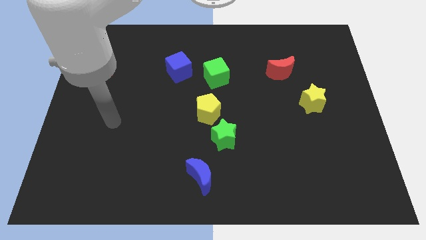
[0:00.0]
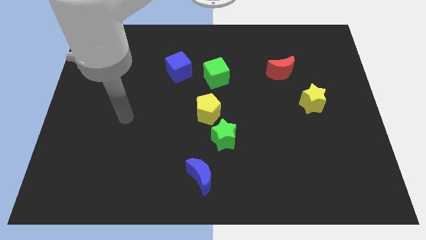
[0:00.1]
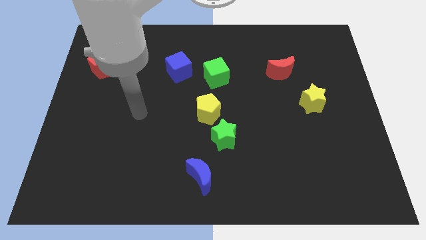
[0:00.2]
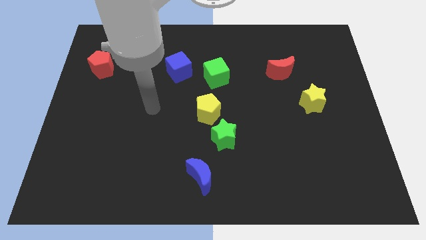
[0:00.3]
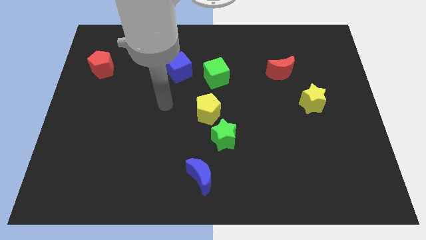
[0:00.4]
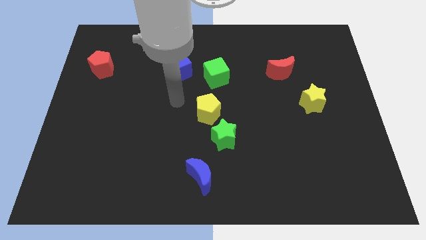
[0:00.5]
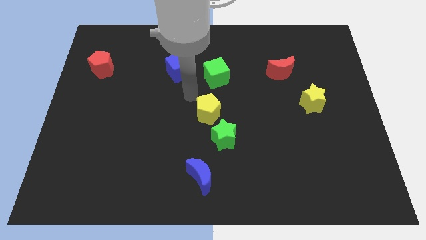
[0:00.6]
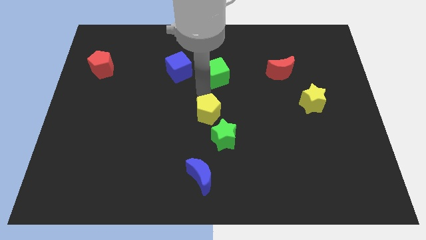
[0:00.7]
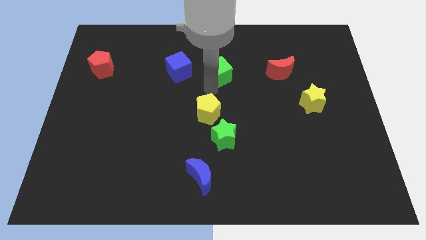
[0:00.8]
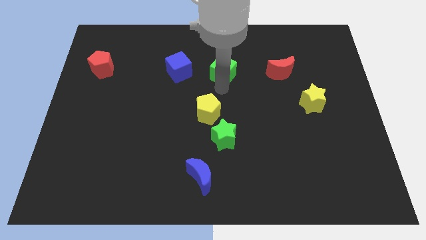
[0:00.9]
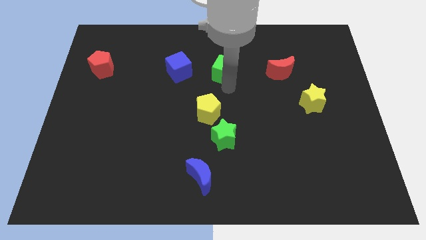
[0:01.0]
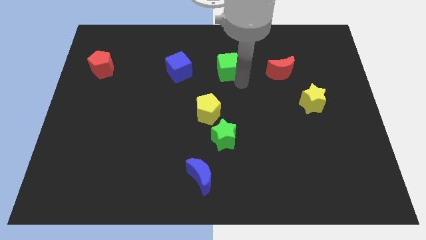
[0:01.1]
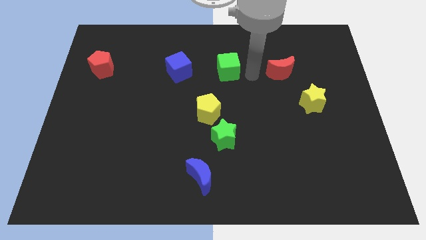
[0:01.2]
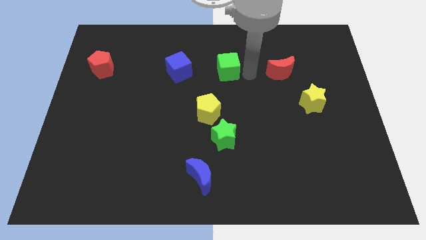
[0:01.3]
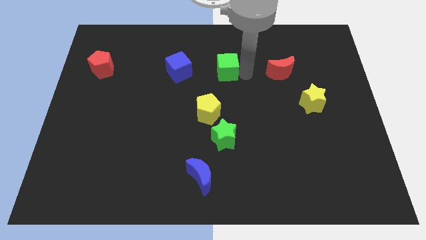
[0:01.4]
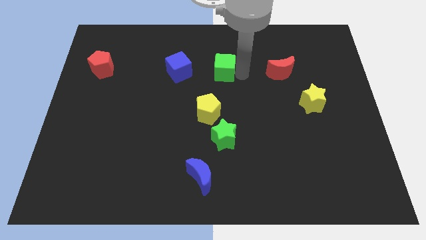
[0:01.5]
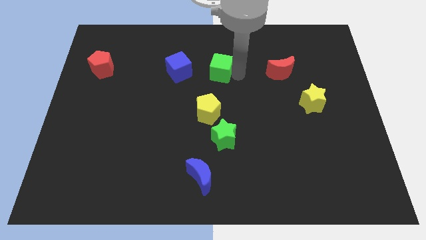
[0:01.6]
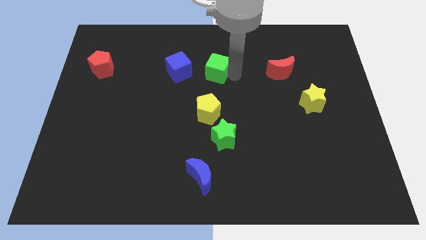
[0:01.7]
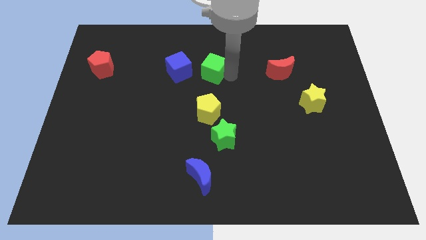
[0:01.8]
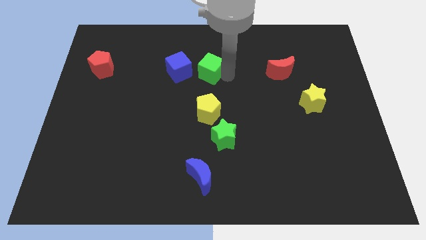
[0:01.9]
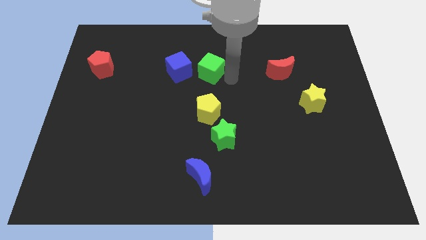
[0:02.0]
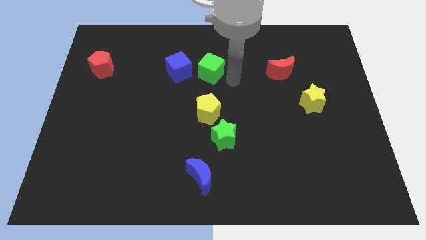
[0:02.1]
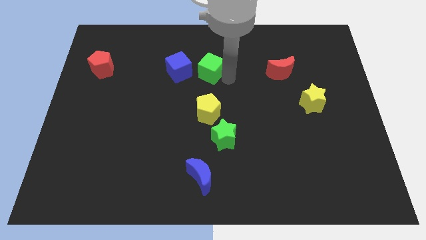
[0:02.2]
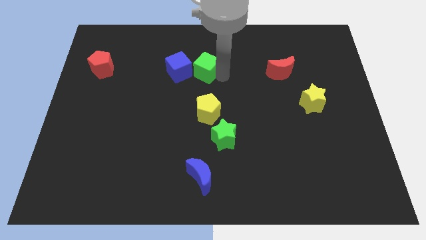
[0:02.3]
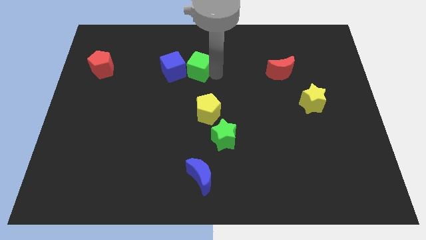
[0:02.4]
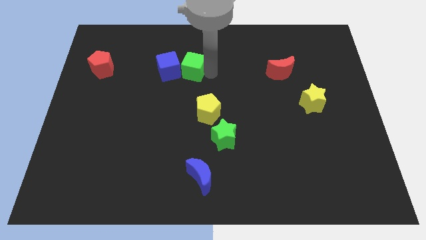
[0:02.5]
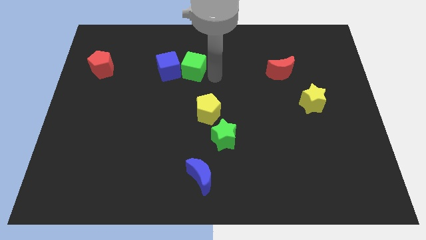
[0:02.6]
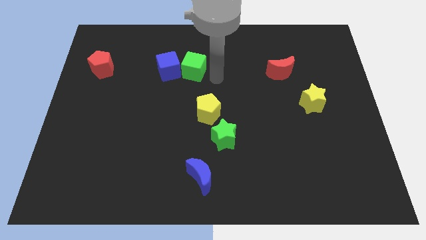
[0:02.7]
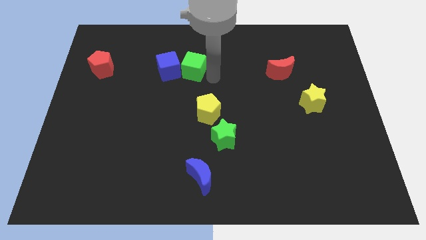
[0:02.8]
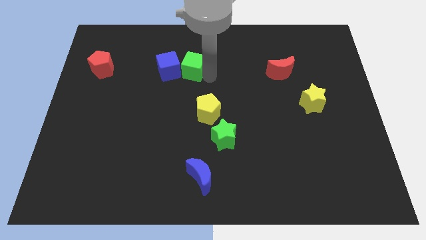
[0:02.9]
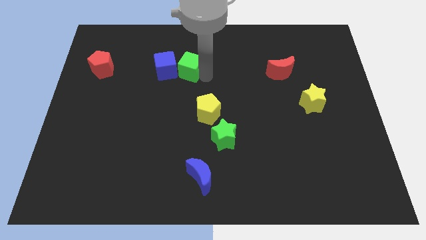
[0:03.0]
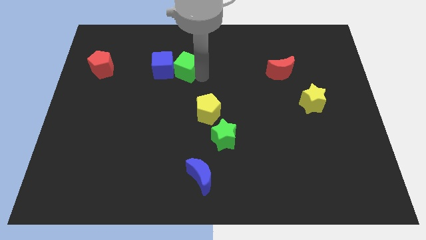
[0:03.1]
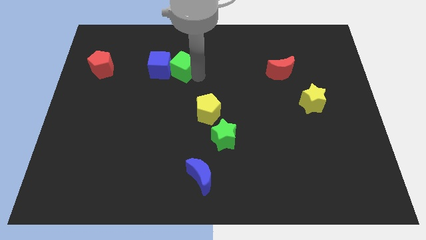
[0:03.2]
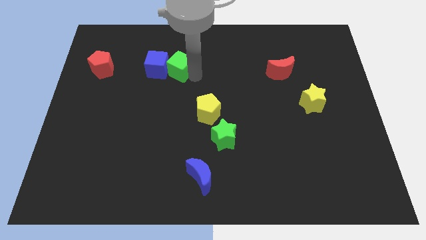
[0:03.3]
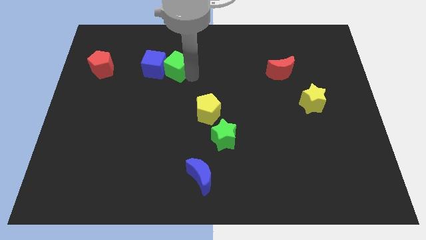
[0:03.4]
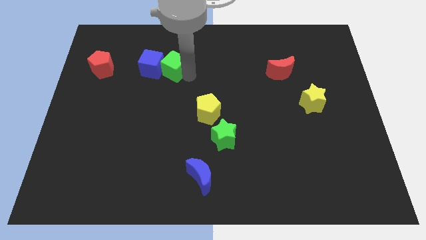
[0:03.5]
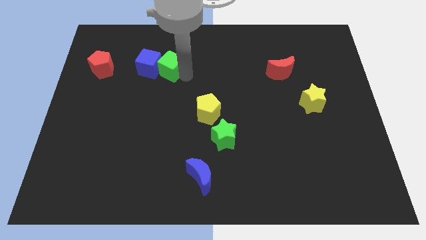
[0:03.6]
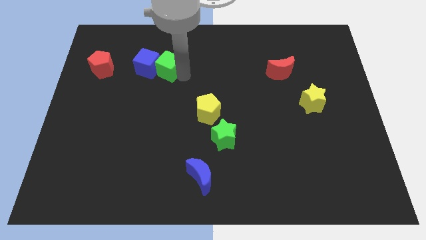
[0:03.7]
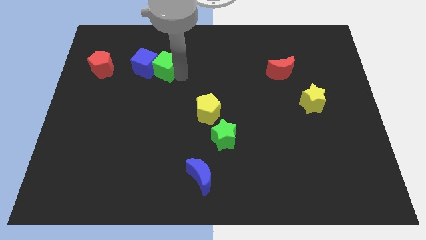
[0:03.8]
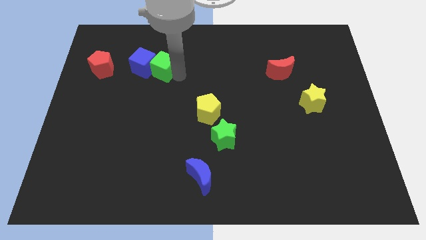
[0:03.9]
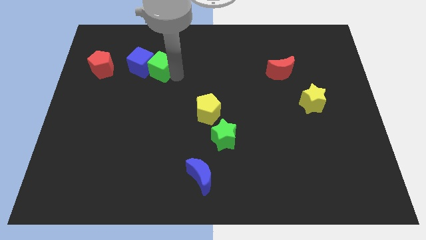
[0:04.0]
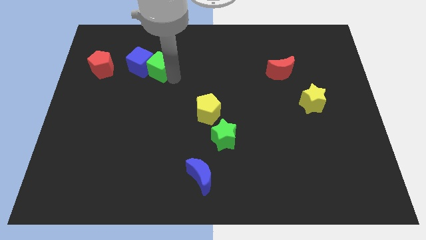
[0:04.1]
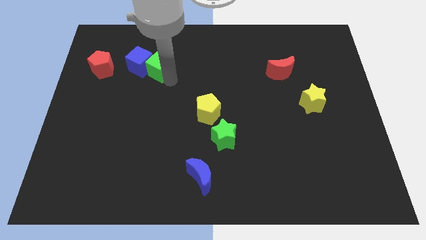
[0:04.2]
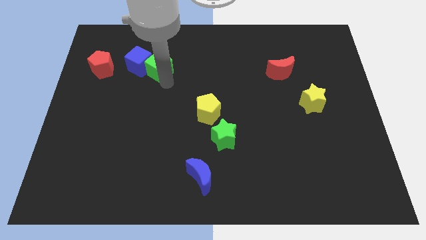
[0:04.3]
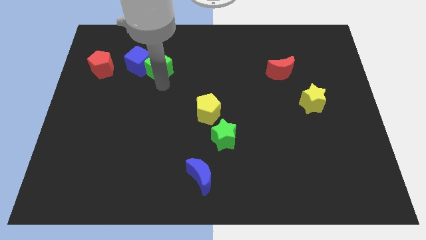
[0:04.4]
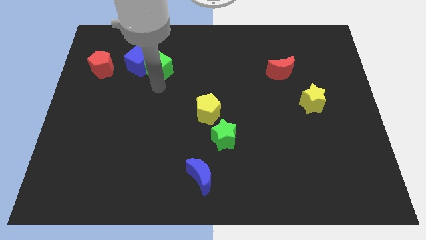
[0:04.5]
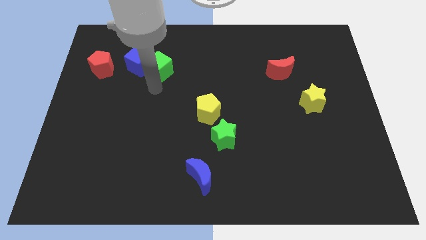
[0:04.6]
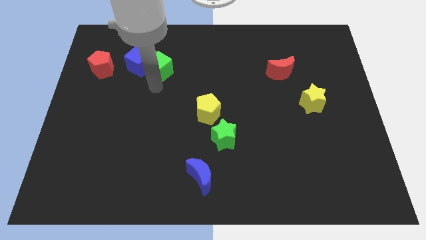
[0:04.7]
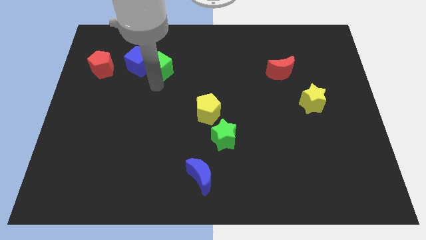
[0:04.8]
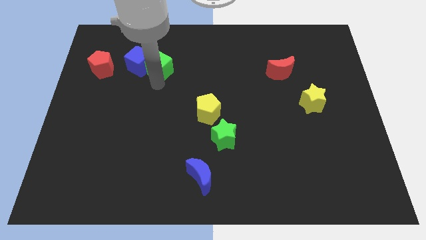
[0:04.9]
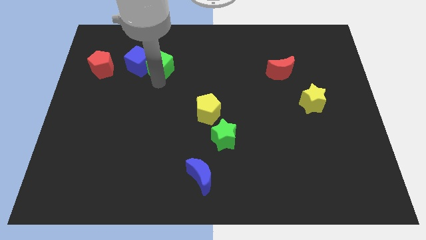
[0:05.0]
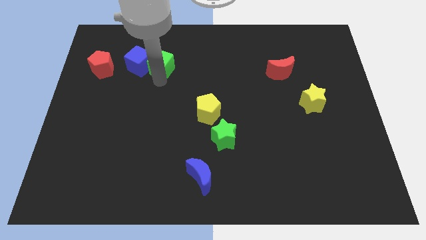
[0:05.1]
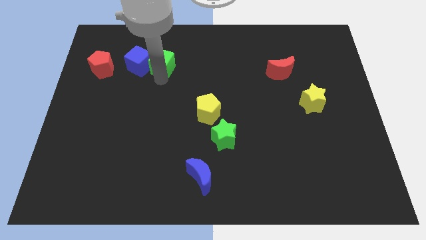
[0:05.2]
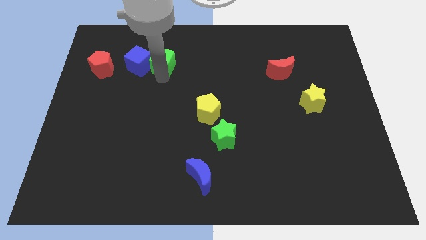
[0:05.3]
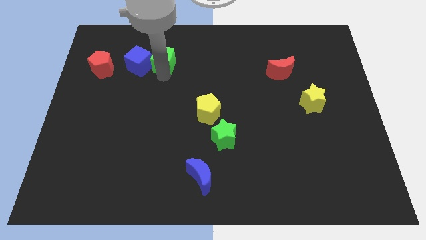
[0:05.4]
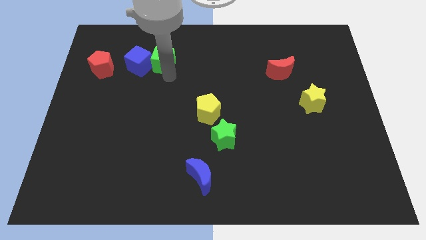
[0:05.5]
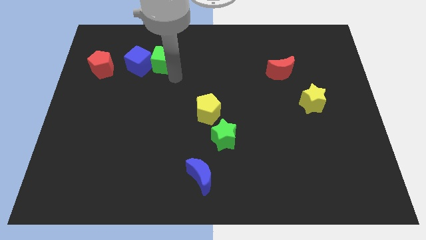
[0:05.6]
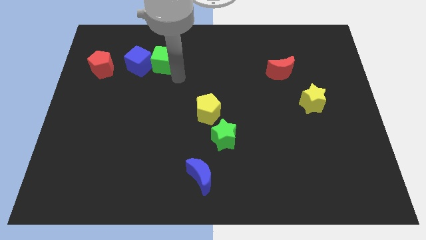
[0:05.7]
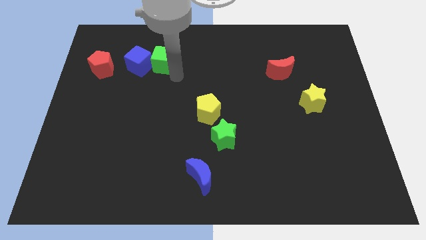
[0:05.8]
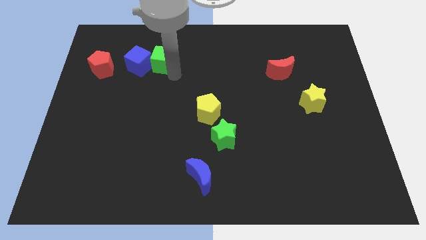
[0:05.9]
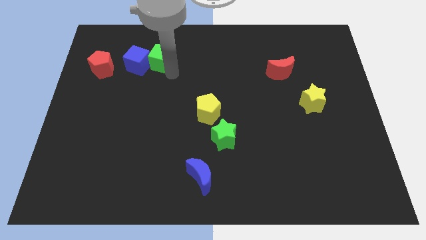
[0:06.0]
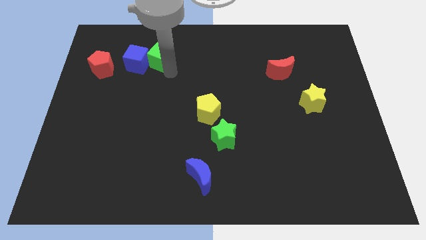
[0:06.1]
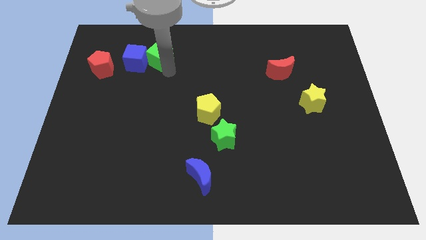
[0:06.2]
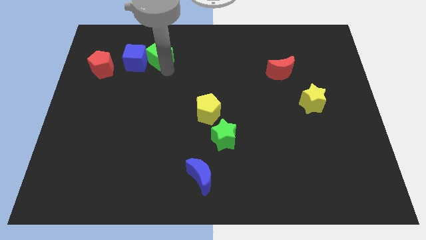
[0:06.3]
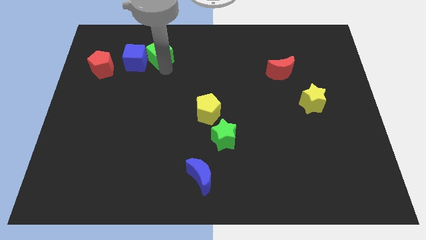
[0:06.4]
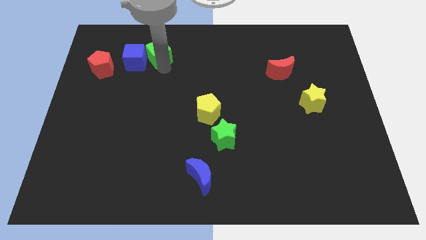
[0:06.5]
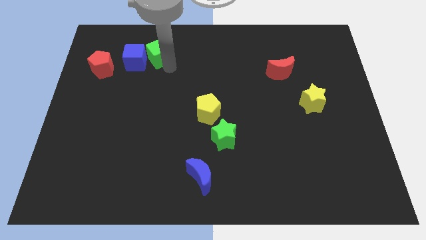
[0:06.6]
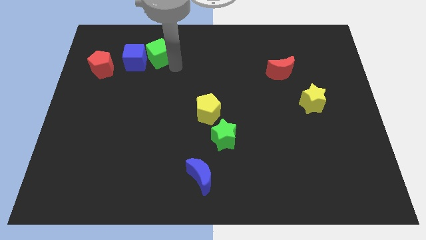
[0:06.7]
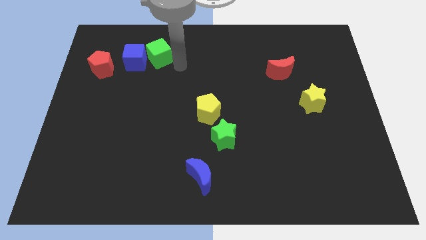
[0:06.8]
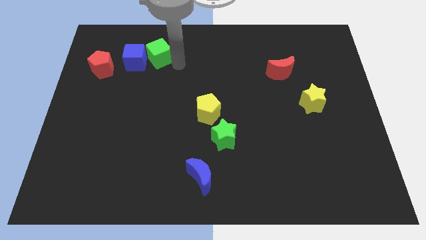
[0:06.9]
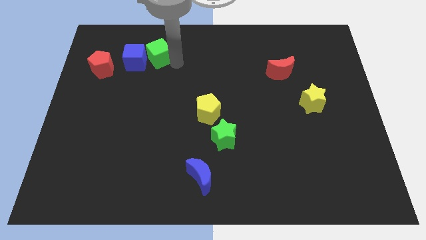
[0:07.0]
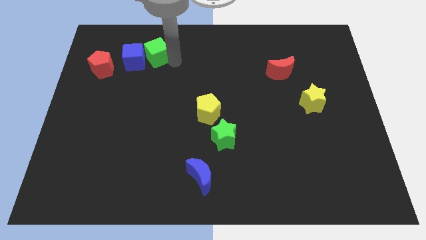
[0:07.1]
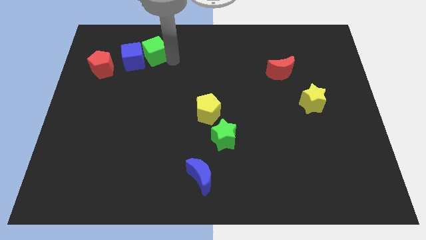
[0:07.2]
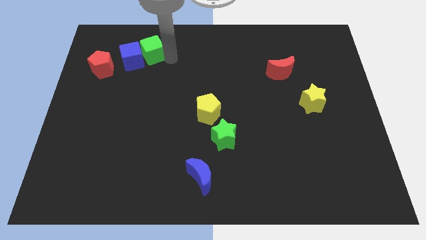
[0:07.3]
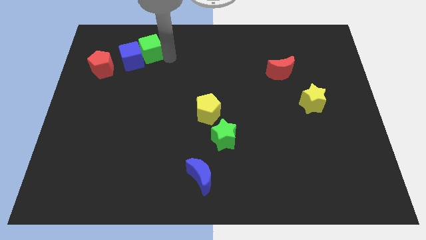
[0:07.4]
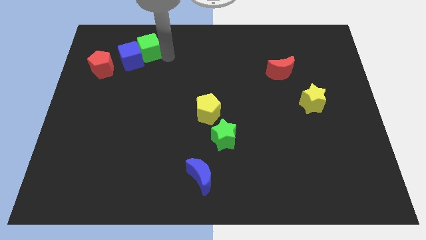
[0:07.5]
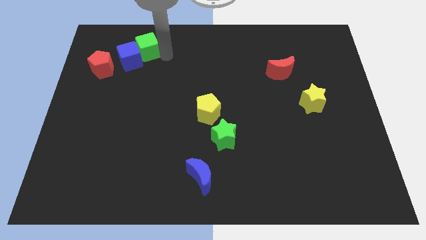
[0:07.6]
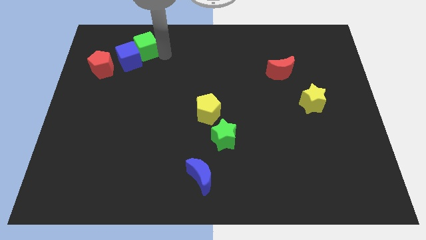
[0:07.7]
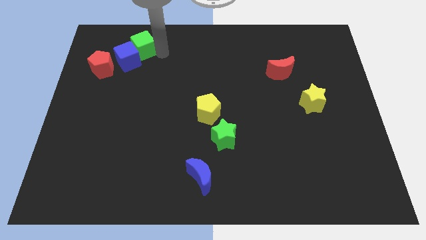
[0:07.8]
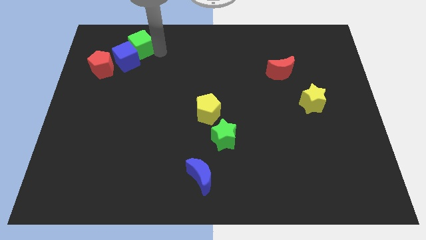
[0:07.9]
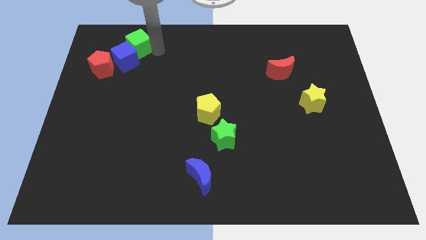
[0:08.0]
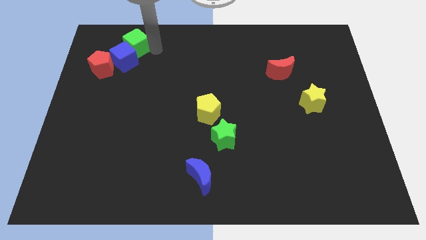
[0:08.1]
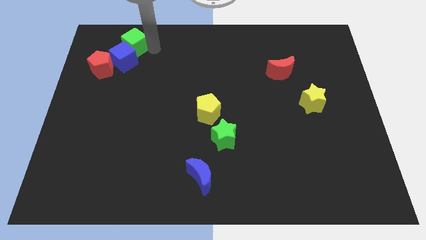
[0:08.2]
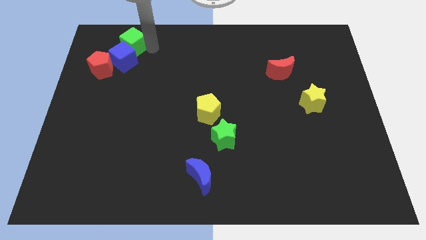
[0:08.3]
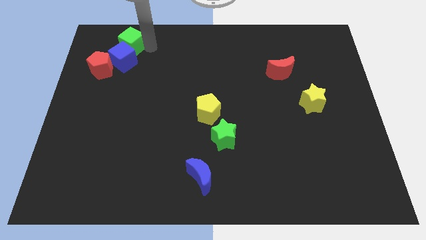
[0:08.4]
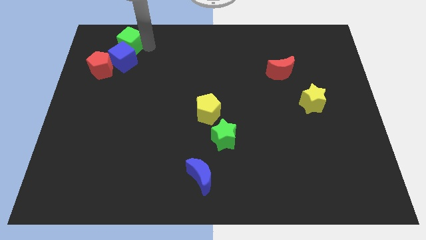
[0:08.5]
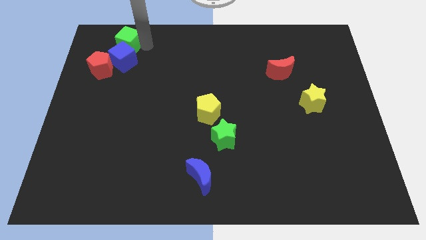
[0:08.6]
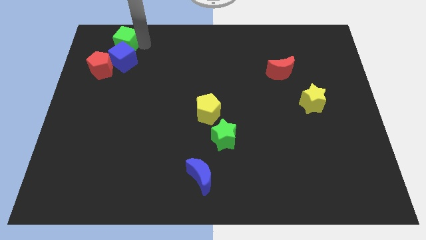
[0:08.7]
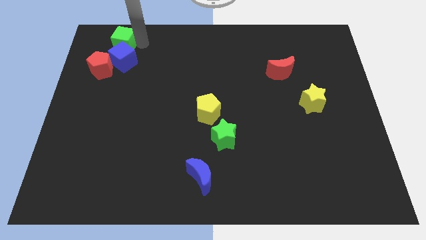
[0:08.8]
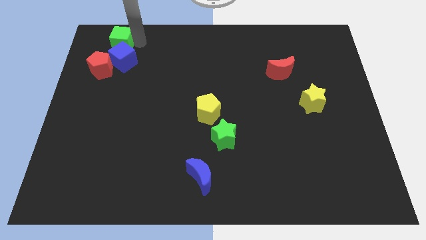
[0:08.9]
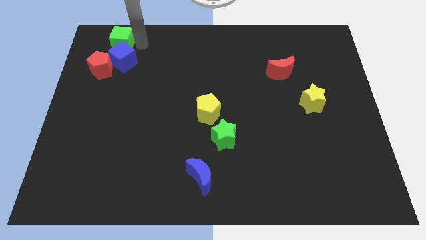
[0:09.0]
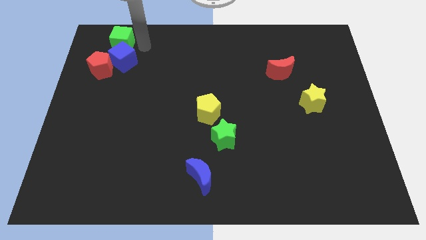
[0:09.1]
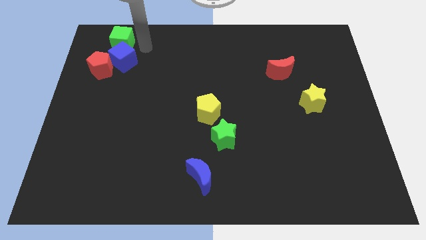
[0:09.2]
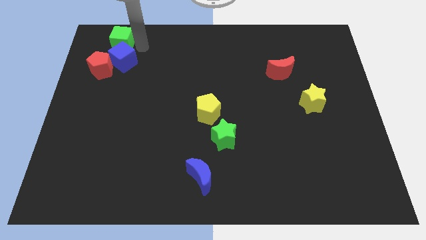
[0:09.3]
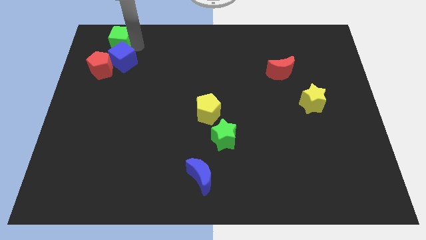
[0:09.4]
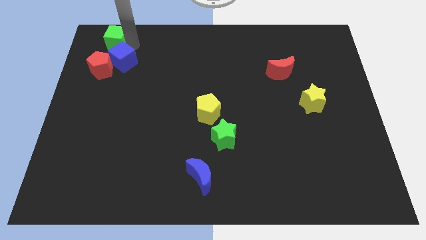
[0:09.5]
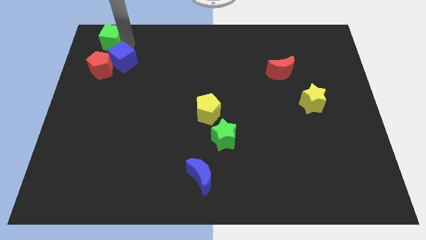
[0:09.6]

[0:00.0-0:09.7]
push the green cube to the top left corner
